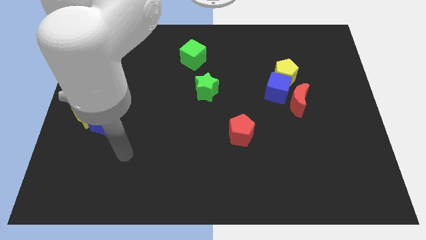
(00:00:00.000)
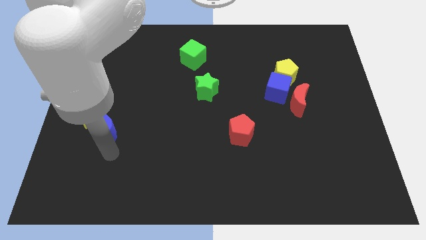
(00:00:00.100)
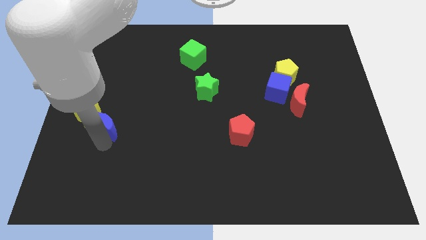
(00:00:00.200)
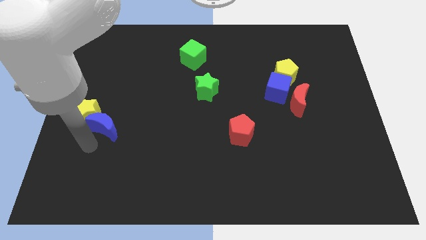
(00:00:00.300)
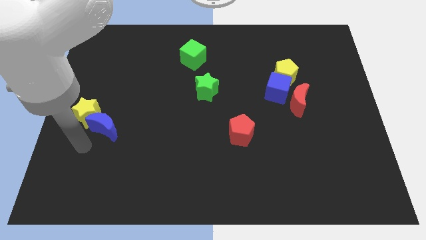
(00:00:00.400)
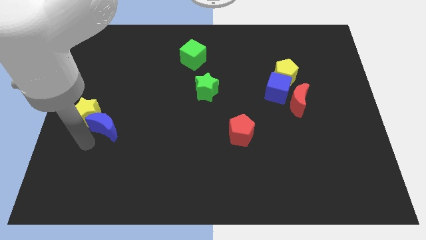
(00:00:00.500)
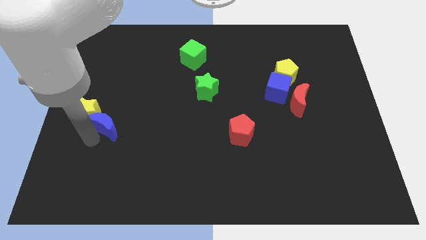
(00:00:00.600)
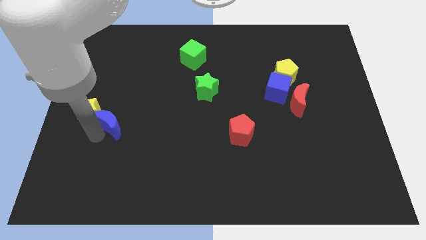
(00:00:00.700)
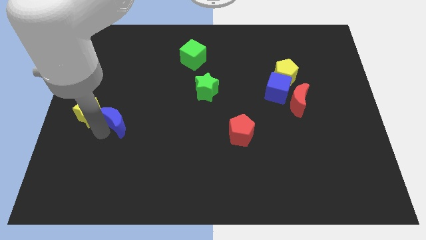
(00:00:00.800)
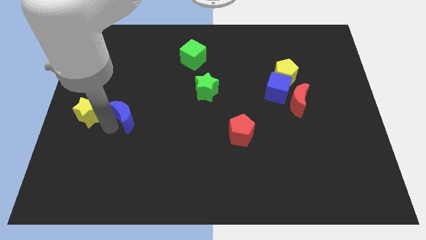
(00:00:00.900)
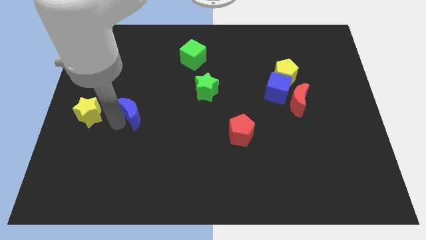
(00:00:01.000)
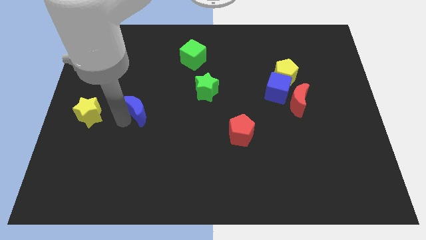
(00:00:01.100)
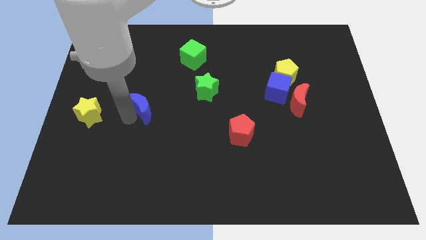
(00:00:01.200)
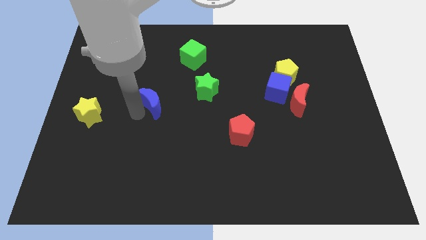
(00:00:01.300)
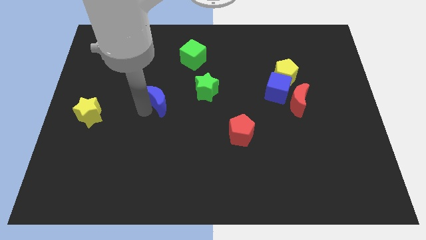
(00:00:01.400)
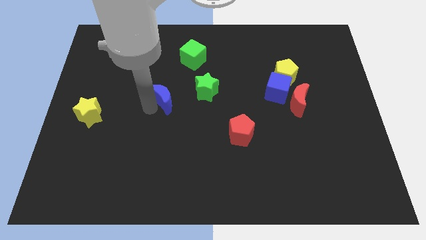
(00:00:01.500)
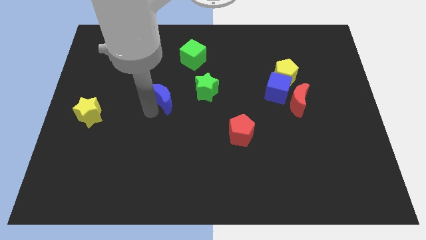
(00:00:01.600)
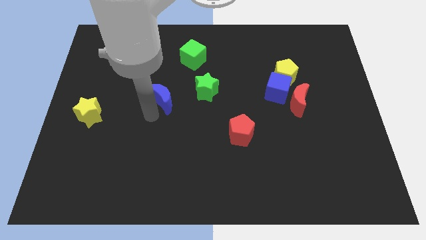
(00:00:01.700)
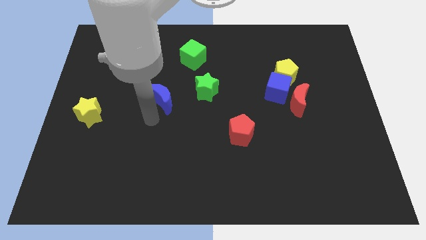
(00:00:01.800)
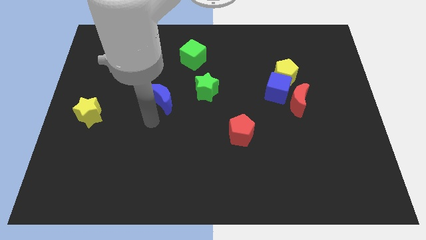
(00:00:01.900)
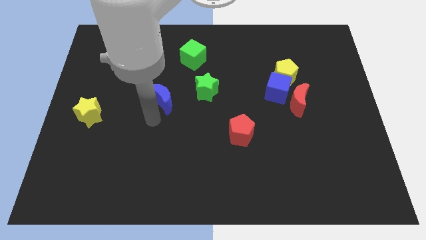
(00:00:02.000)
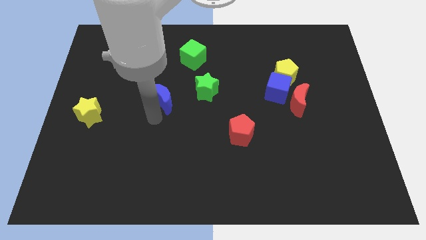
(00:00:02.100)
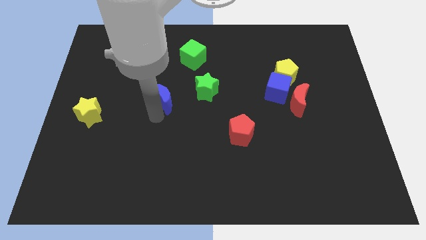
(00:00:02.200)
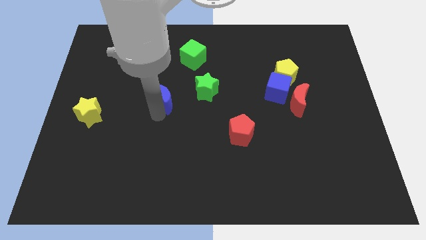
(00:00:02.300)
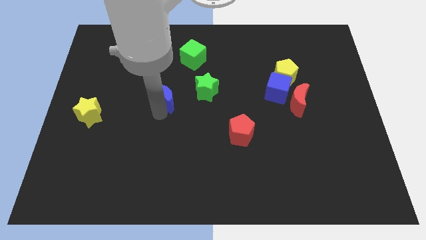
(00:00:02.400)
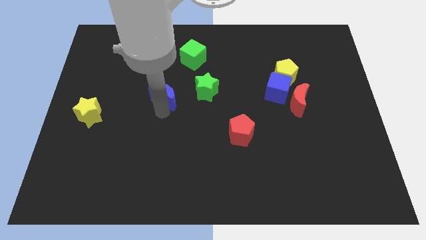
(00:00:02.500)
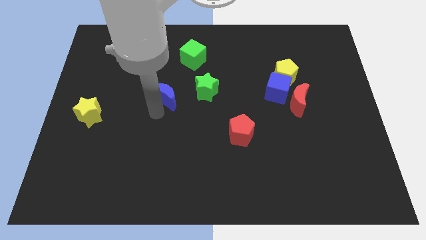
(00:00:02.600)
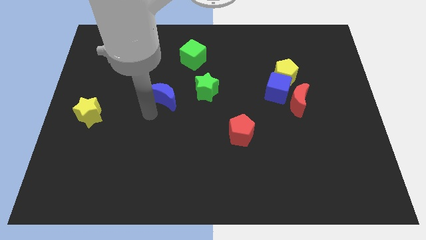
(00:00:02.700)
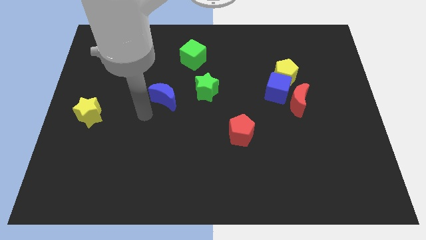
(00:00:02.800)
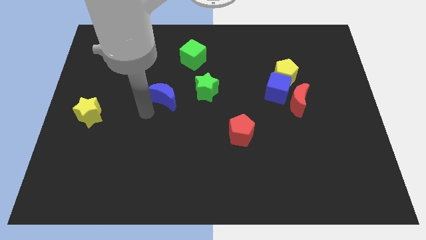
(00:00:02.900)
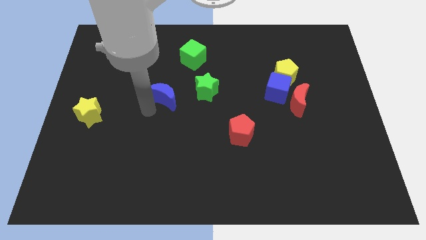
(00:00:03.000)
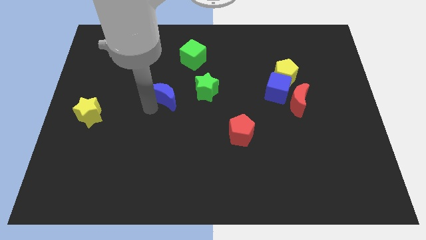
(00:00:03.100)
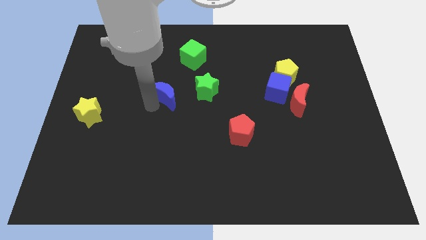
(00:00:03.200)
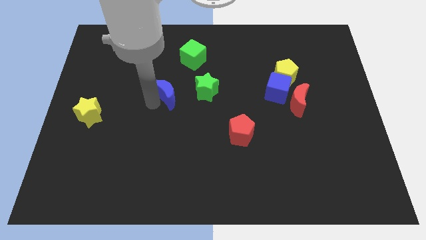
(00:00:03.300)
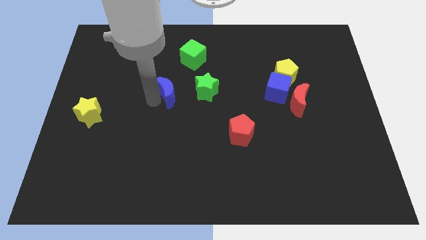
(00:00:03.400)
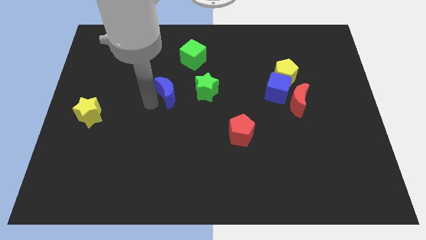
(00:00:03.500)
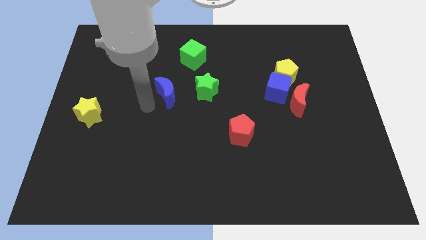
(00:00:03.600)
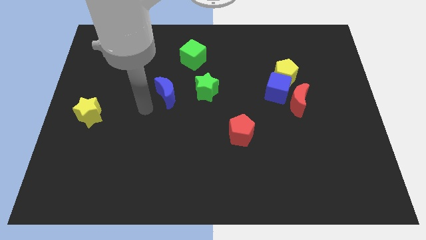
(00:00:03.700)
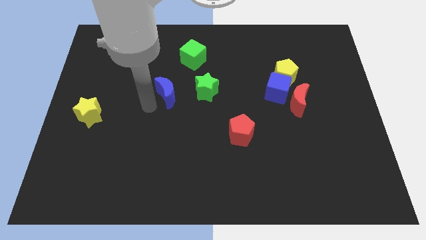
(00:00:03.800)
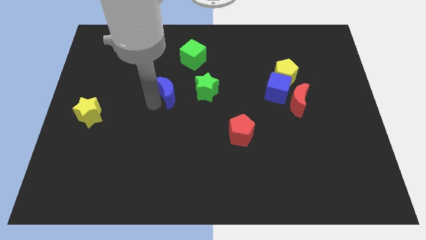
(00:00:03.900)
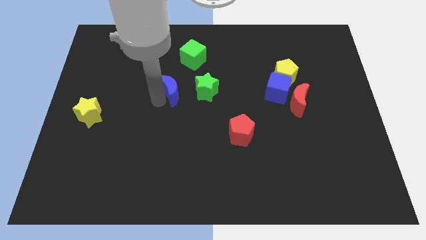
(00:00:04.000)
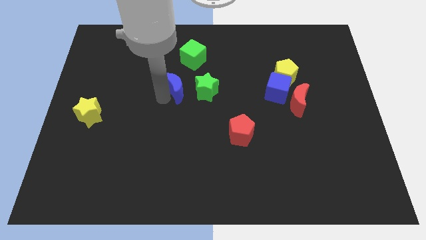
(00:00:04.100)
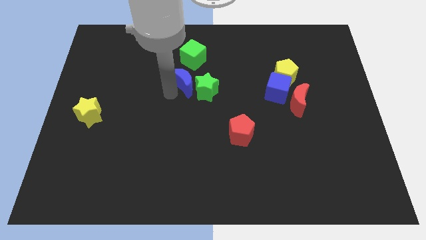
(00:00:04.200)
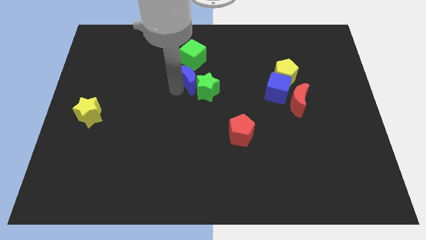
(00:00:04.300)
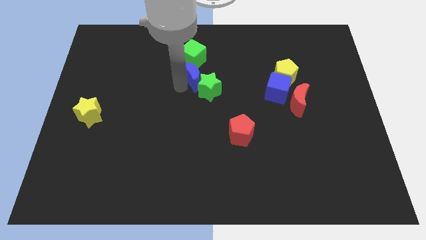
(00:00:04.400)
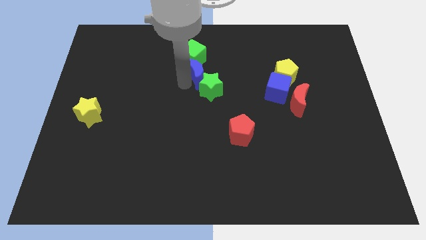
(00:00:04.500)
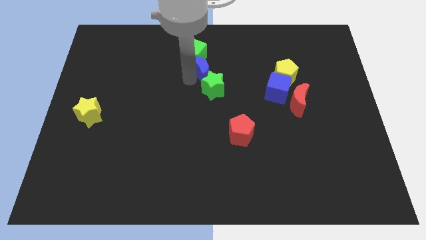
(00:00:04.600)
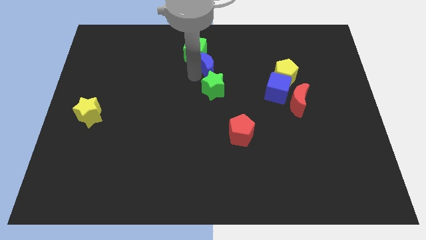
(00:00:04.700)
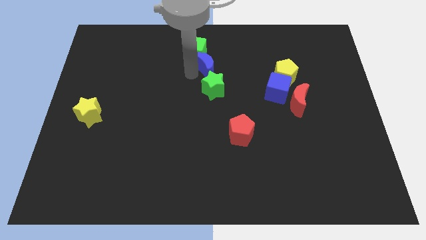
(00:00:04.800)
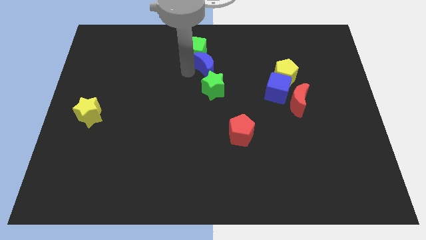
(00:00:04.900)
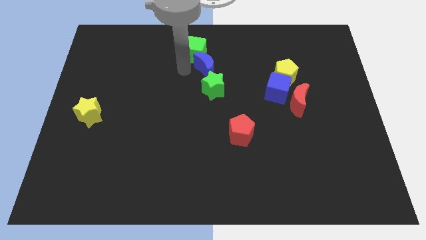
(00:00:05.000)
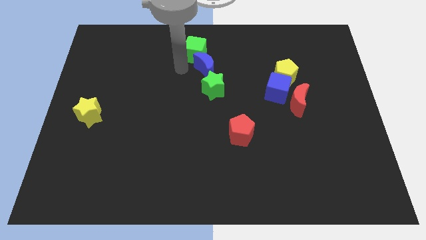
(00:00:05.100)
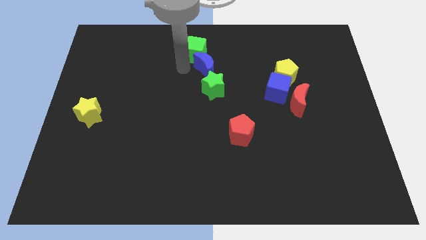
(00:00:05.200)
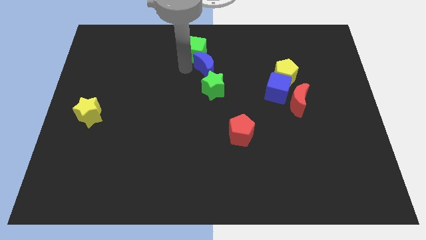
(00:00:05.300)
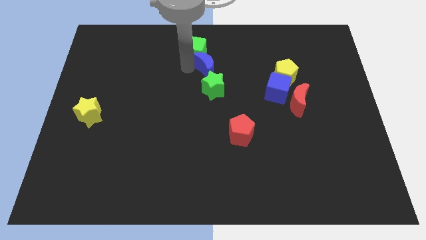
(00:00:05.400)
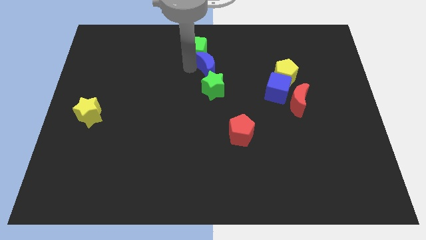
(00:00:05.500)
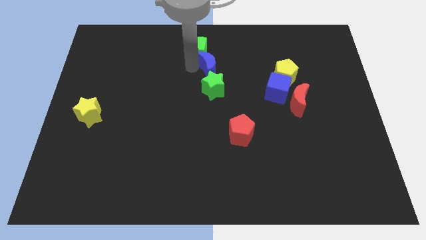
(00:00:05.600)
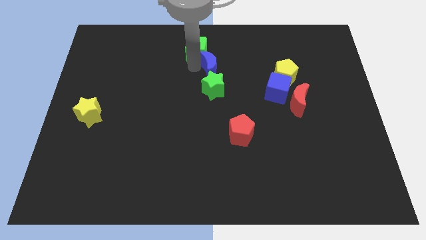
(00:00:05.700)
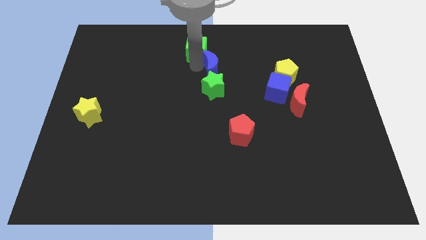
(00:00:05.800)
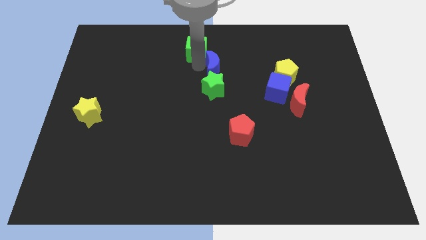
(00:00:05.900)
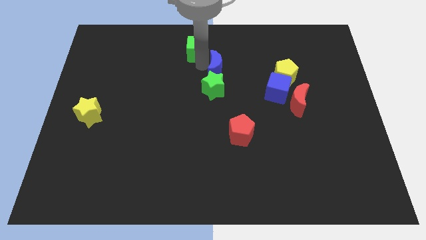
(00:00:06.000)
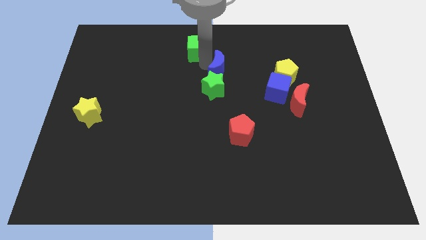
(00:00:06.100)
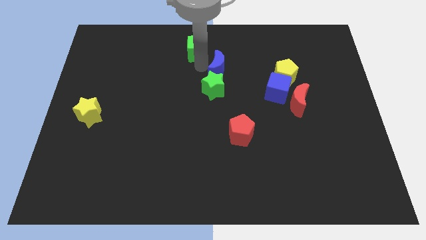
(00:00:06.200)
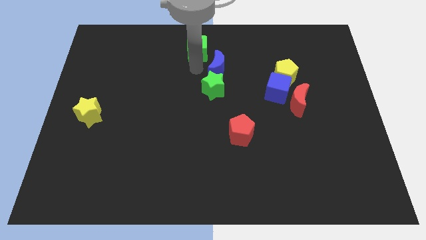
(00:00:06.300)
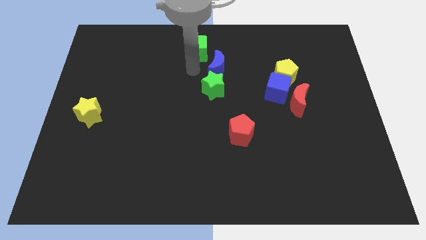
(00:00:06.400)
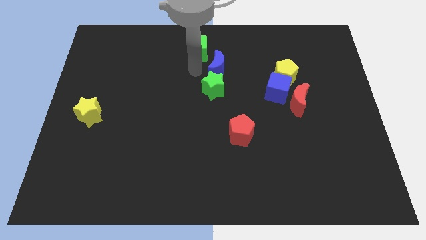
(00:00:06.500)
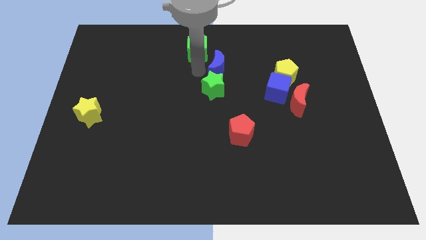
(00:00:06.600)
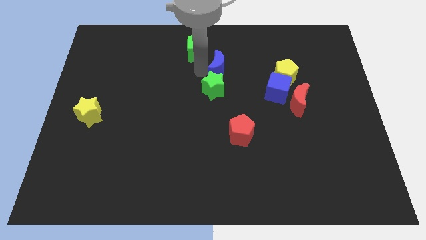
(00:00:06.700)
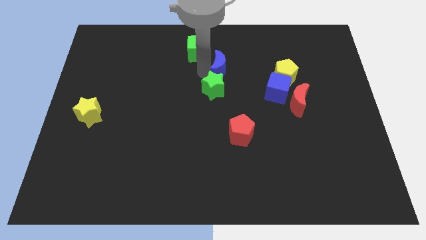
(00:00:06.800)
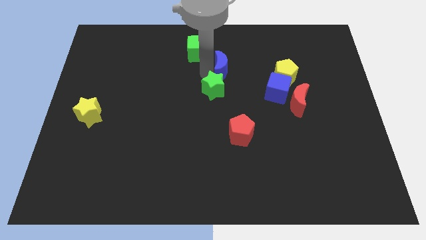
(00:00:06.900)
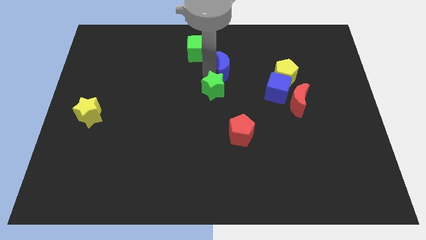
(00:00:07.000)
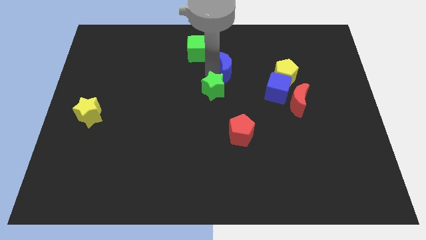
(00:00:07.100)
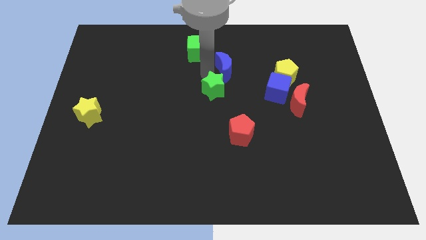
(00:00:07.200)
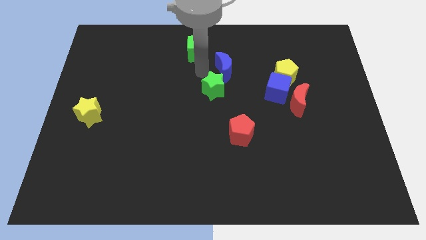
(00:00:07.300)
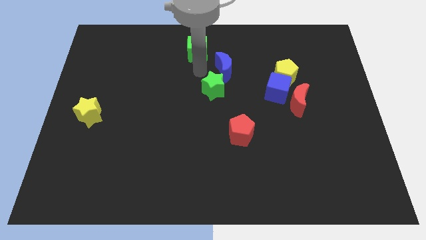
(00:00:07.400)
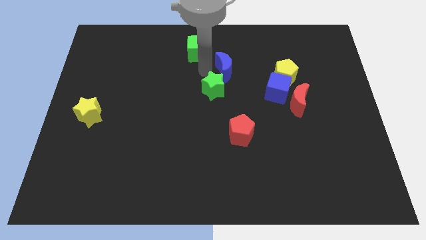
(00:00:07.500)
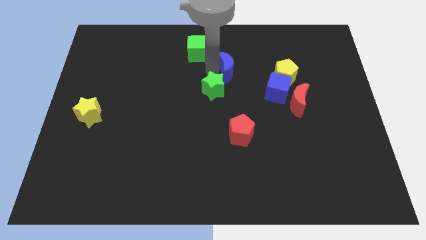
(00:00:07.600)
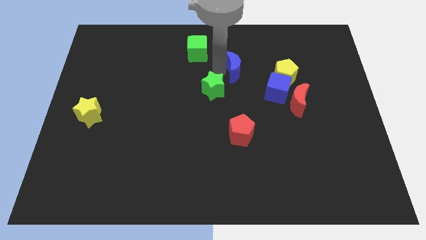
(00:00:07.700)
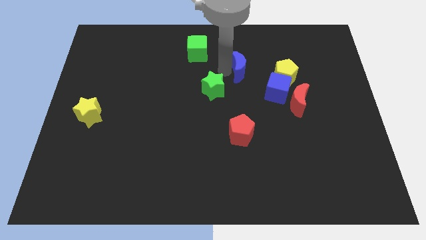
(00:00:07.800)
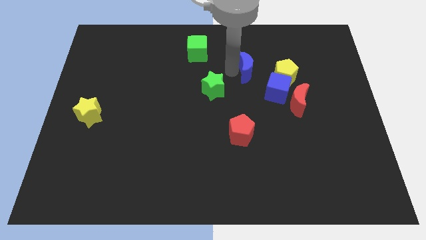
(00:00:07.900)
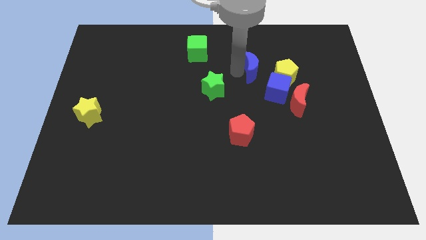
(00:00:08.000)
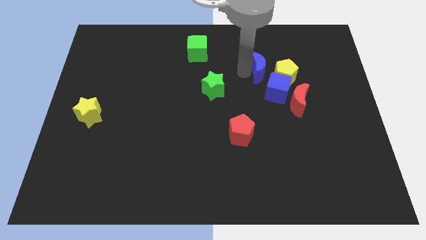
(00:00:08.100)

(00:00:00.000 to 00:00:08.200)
slide the blue moon to the top of the blue cube
